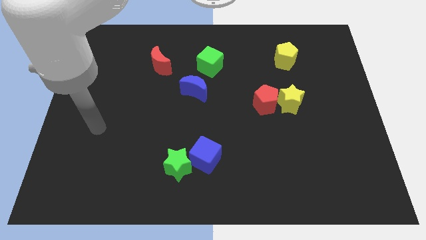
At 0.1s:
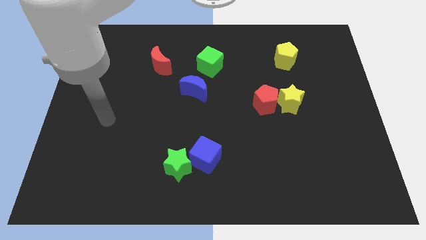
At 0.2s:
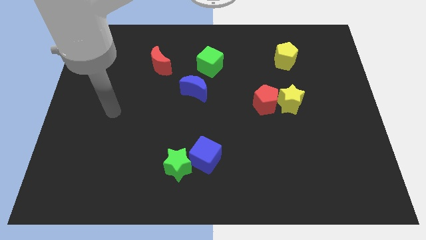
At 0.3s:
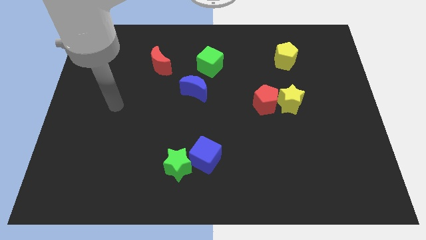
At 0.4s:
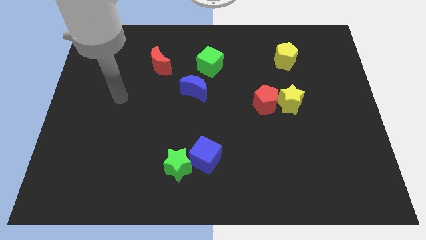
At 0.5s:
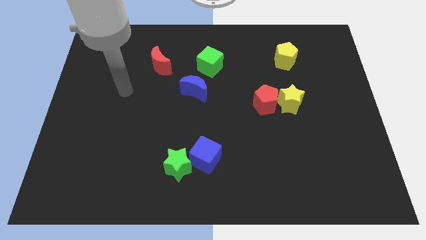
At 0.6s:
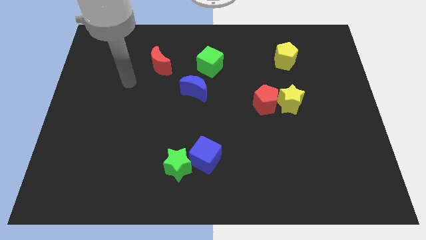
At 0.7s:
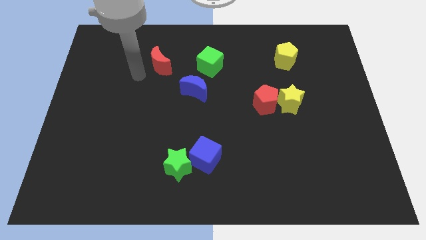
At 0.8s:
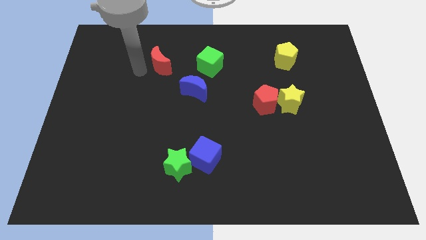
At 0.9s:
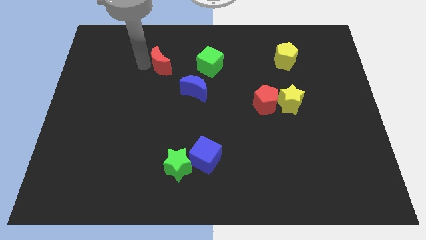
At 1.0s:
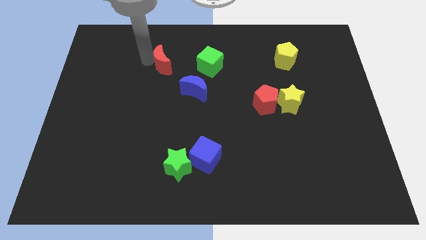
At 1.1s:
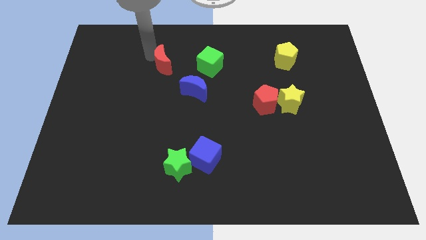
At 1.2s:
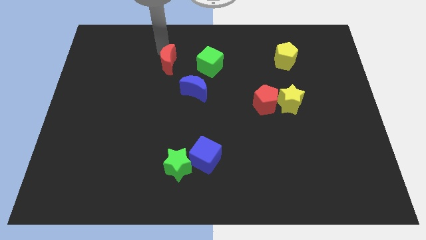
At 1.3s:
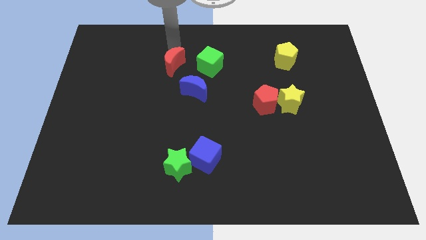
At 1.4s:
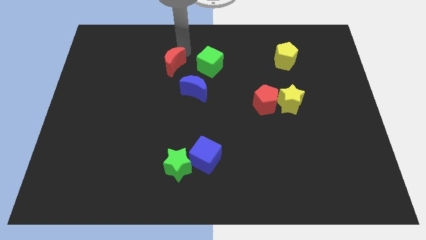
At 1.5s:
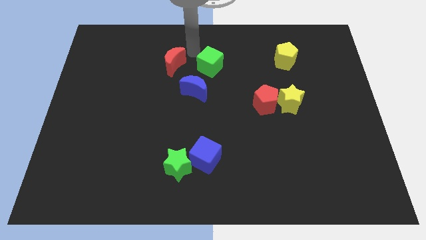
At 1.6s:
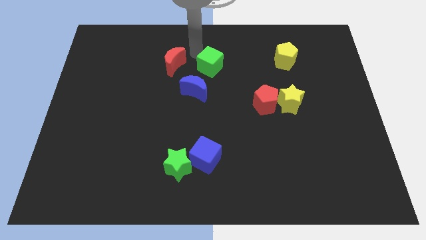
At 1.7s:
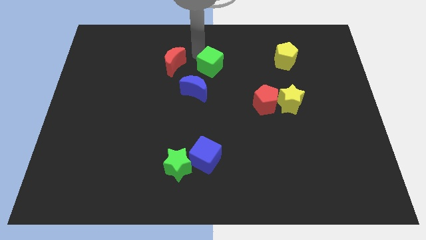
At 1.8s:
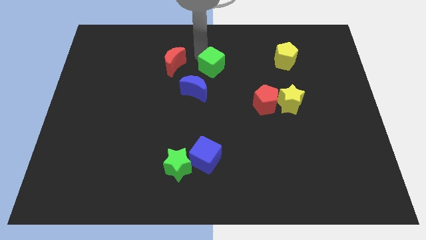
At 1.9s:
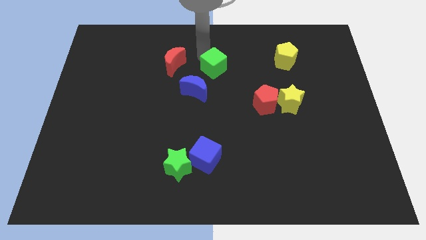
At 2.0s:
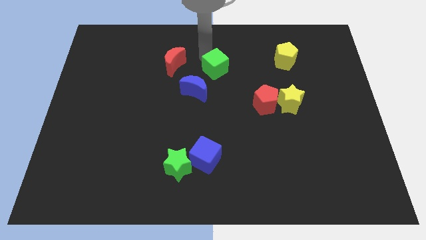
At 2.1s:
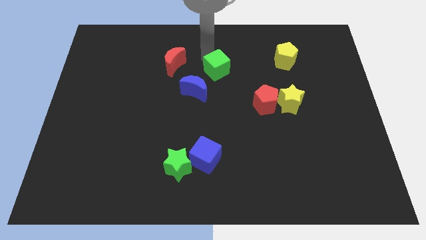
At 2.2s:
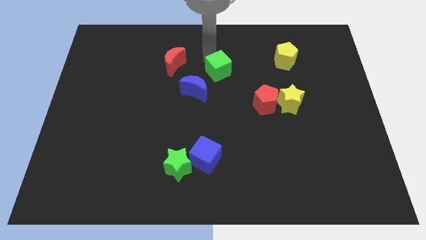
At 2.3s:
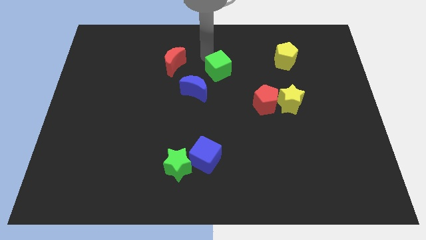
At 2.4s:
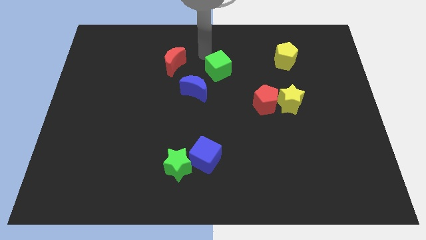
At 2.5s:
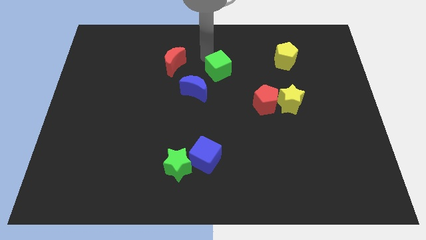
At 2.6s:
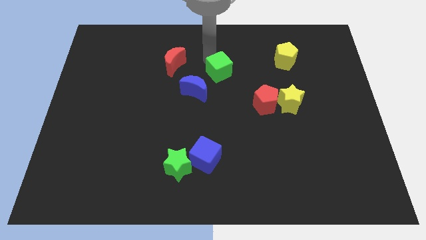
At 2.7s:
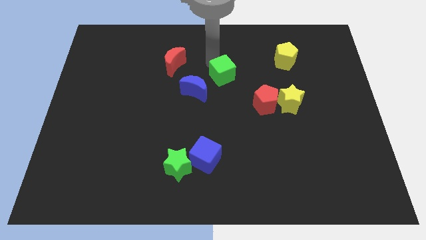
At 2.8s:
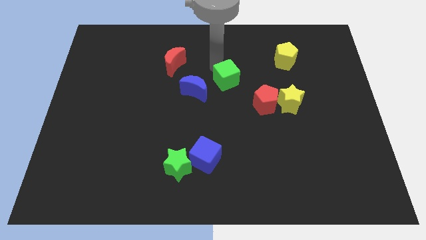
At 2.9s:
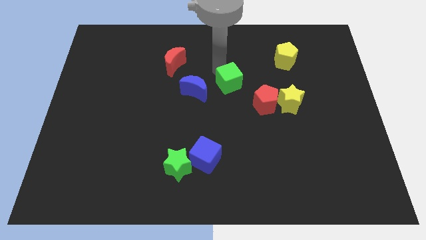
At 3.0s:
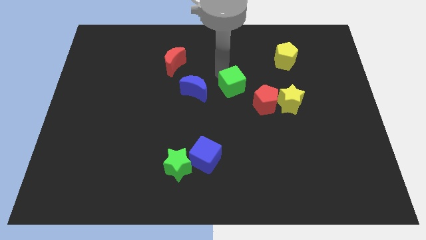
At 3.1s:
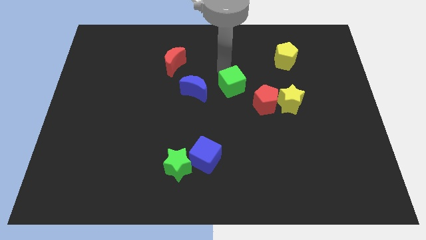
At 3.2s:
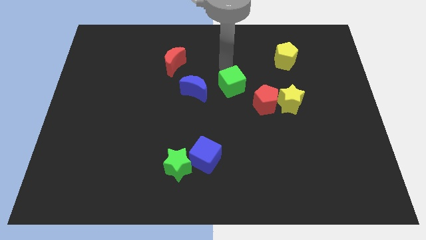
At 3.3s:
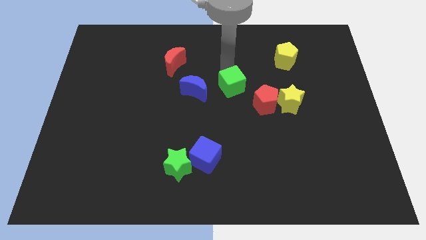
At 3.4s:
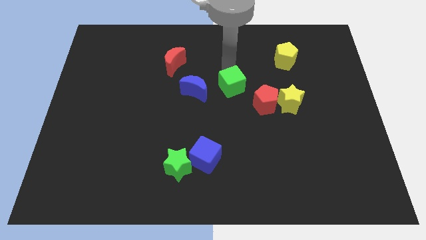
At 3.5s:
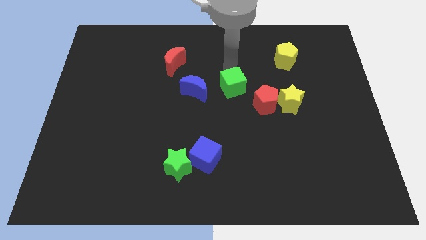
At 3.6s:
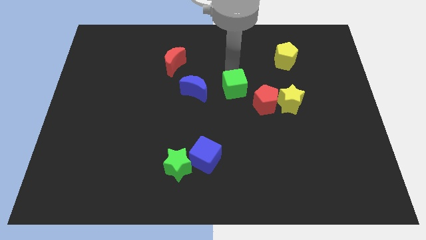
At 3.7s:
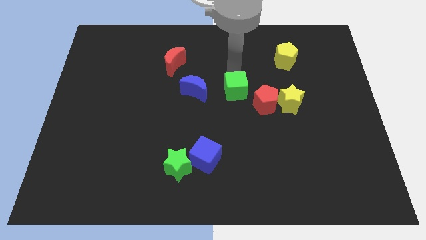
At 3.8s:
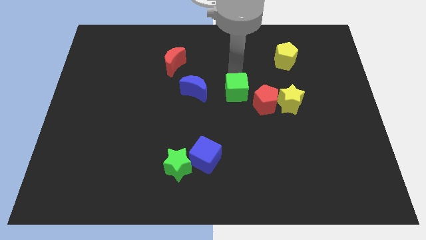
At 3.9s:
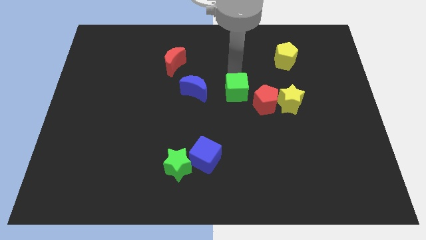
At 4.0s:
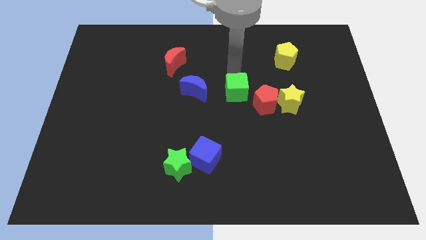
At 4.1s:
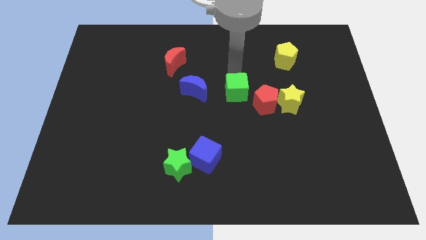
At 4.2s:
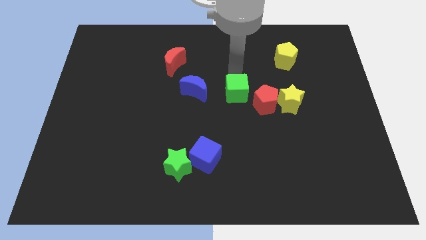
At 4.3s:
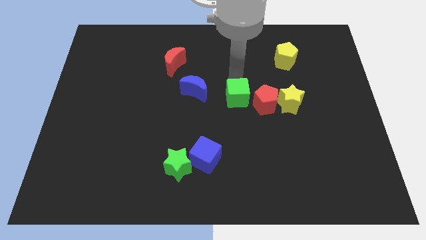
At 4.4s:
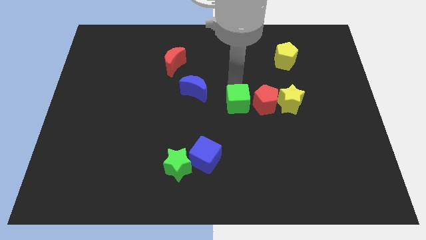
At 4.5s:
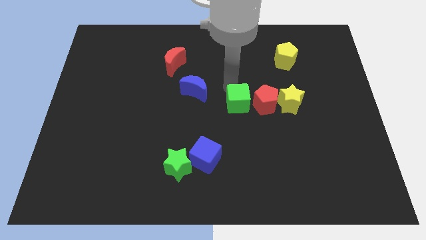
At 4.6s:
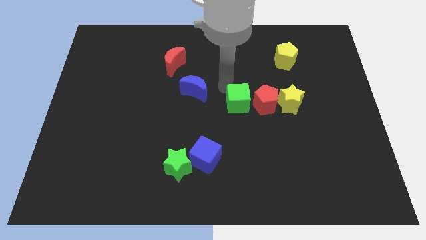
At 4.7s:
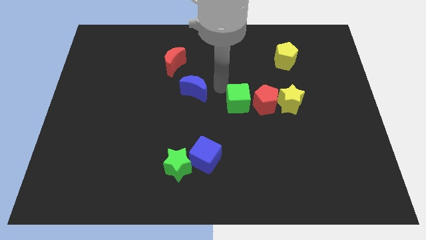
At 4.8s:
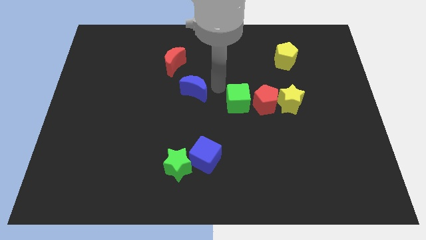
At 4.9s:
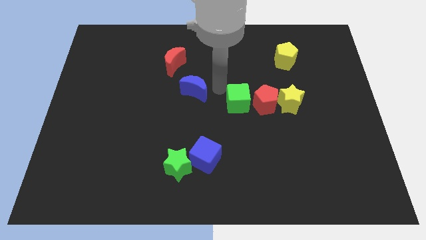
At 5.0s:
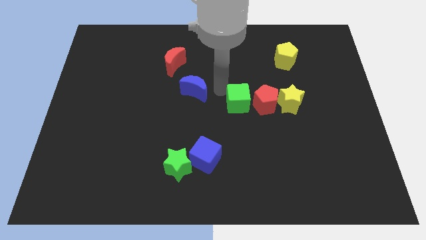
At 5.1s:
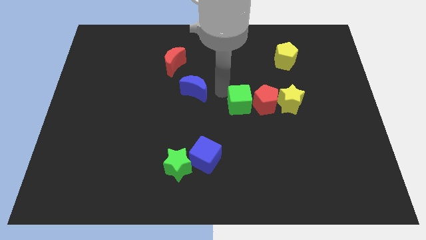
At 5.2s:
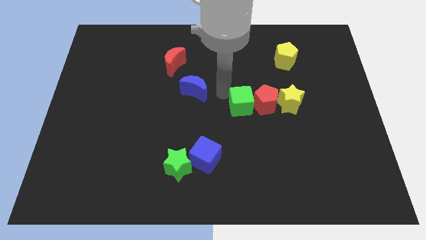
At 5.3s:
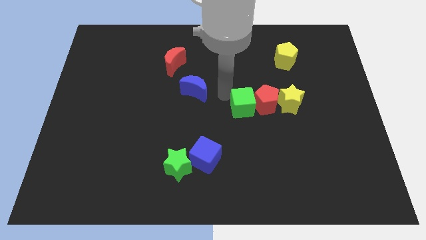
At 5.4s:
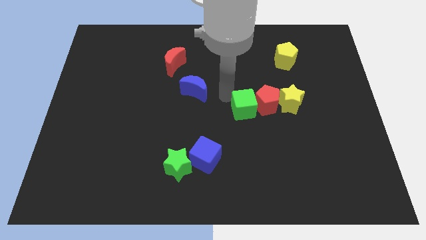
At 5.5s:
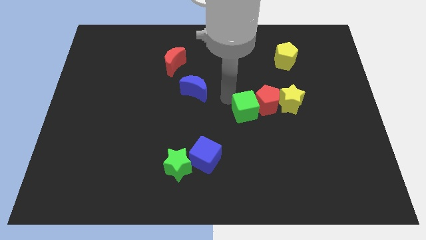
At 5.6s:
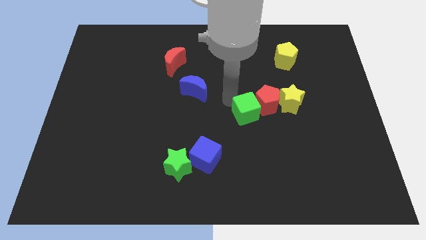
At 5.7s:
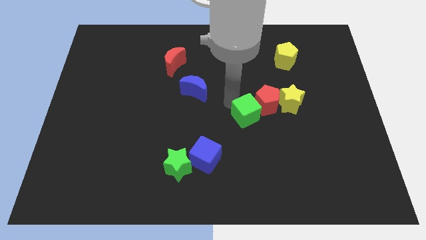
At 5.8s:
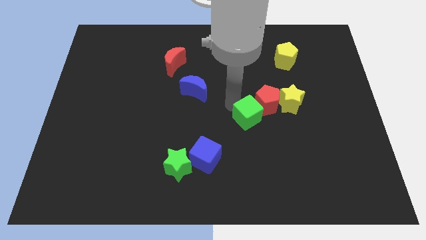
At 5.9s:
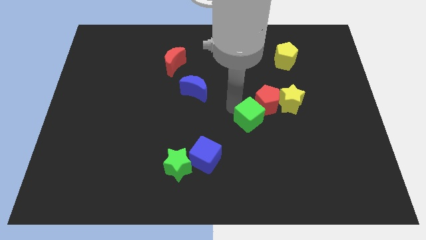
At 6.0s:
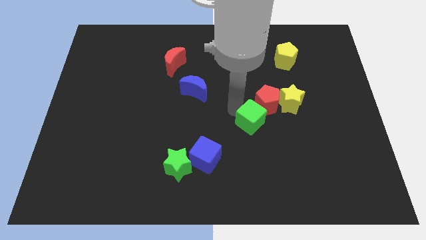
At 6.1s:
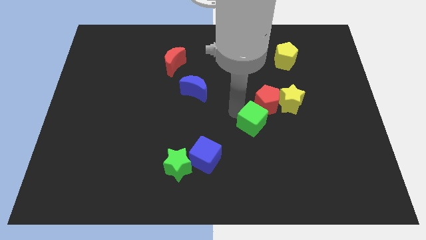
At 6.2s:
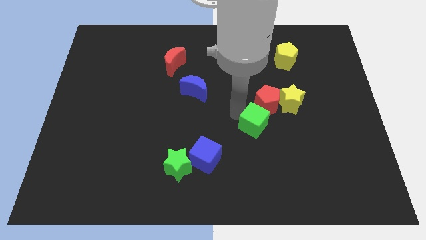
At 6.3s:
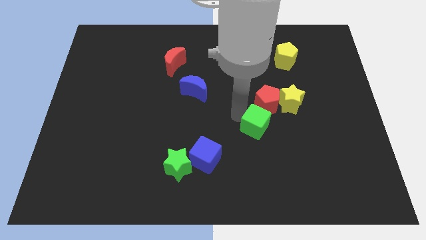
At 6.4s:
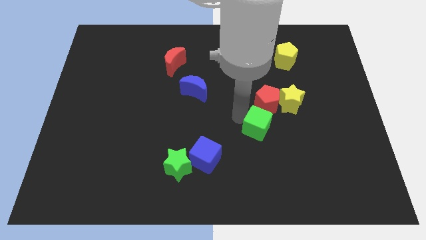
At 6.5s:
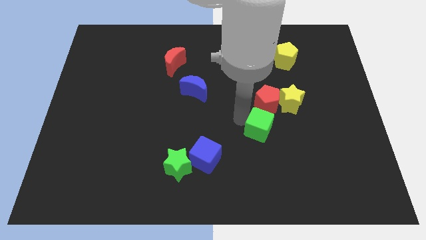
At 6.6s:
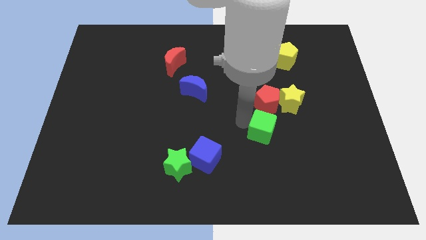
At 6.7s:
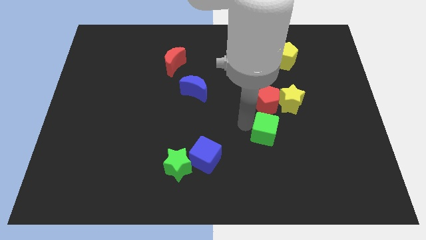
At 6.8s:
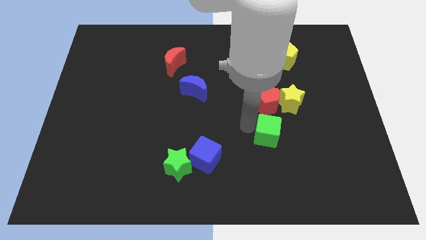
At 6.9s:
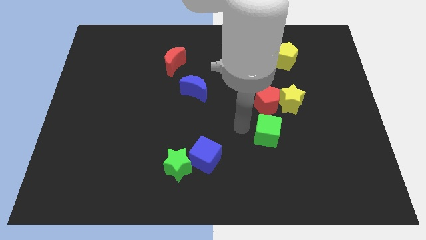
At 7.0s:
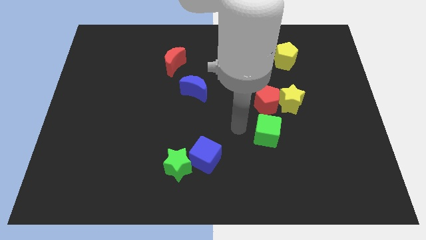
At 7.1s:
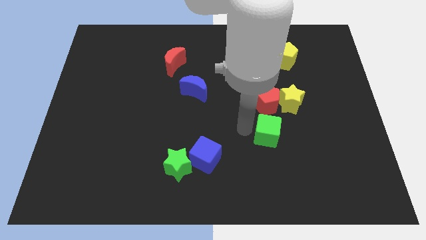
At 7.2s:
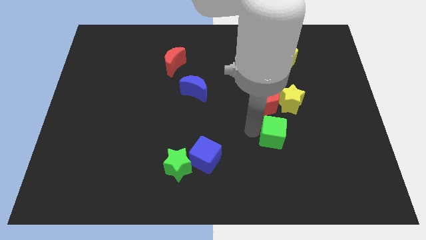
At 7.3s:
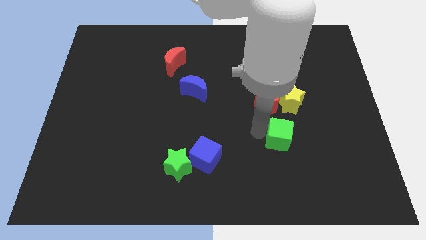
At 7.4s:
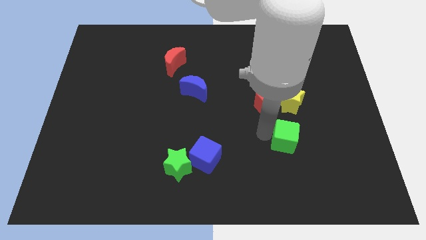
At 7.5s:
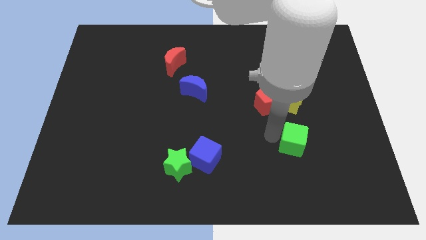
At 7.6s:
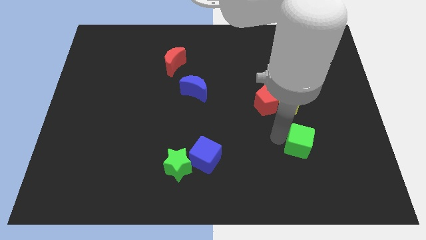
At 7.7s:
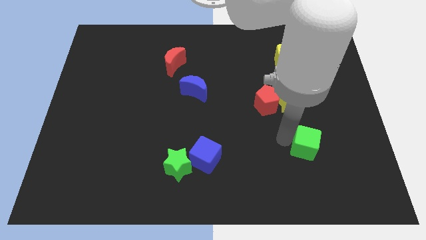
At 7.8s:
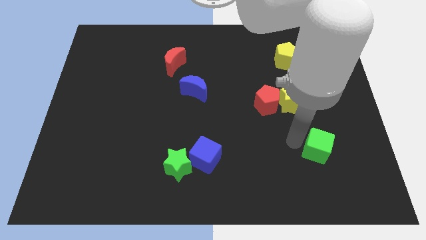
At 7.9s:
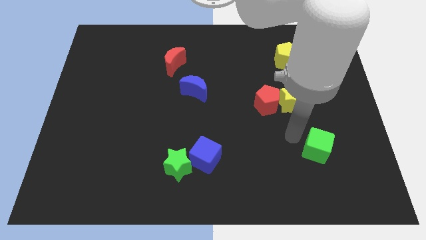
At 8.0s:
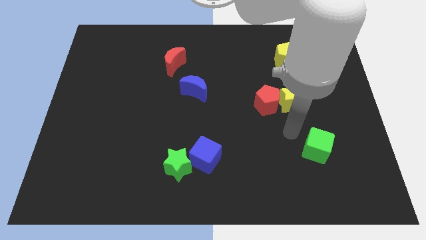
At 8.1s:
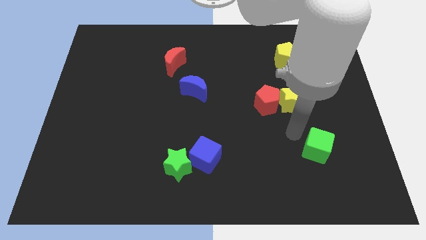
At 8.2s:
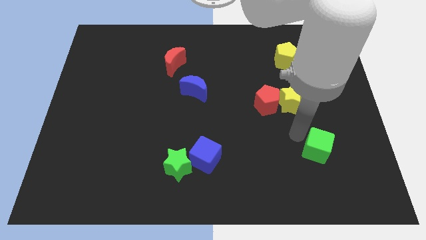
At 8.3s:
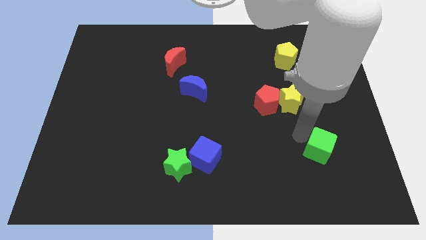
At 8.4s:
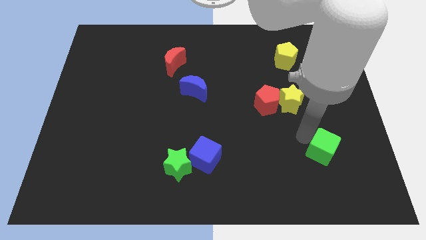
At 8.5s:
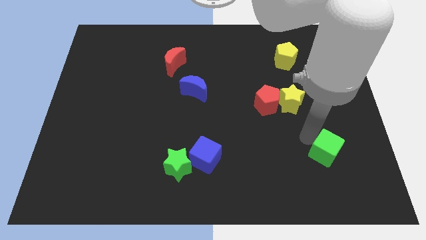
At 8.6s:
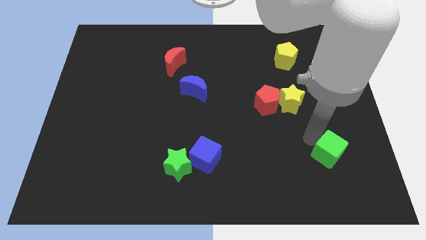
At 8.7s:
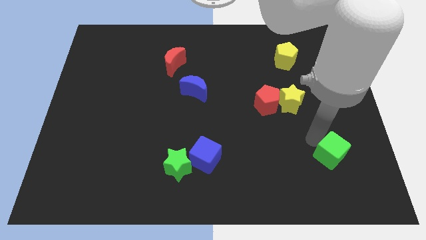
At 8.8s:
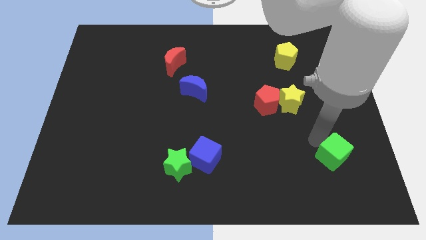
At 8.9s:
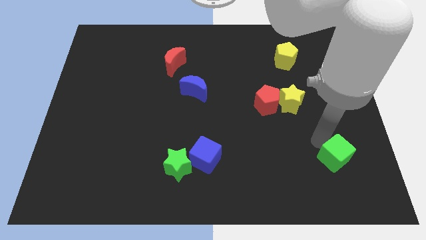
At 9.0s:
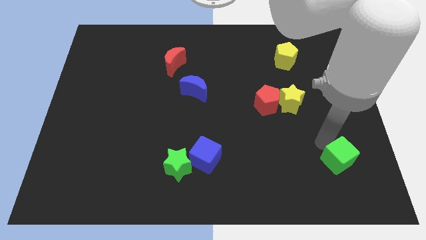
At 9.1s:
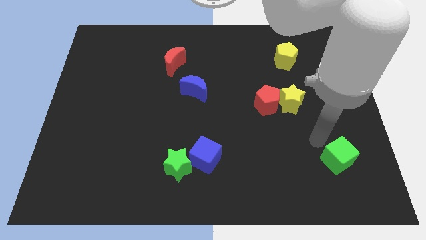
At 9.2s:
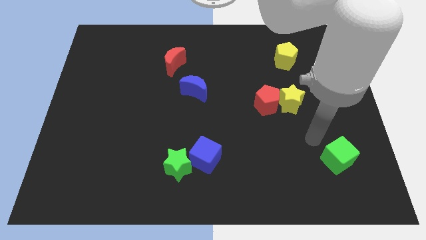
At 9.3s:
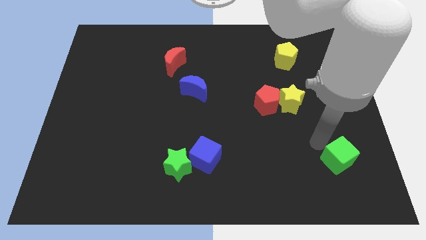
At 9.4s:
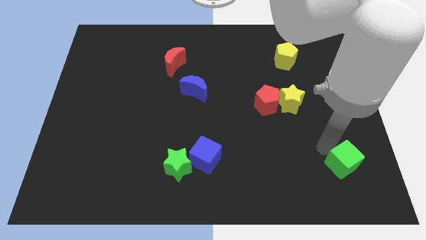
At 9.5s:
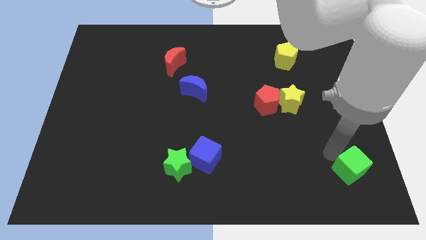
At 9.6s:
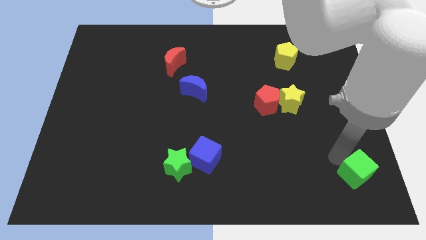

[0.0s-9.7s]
slide the green cube to the lower right corner
